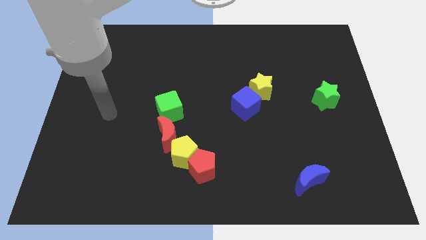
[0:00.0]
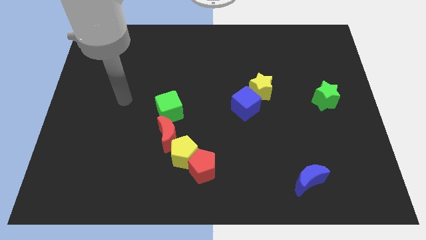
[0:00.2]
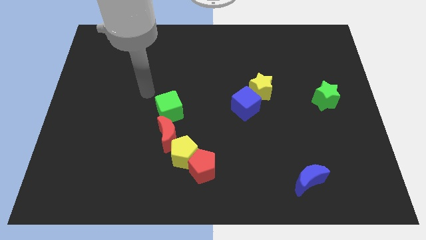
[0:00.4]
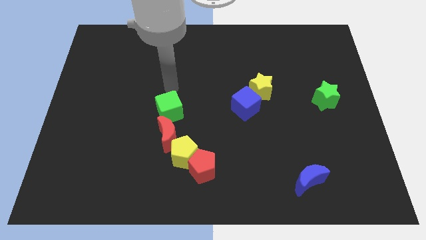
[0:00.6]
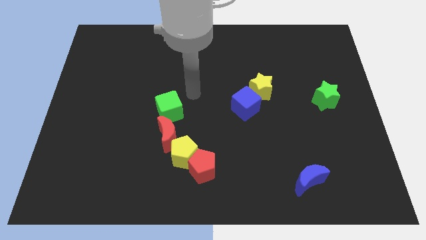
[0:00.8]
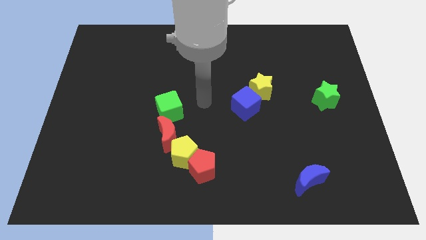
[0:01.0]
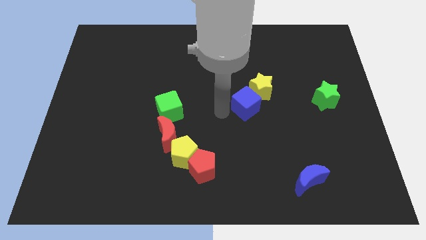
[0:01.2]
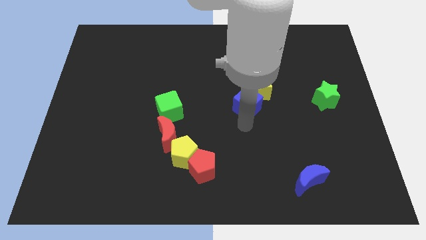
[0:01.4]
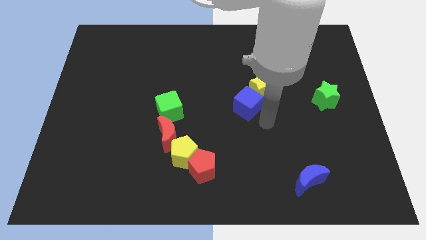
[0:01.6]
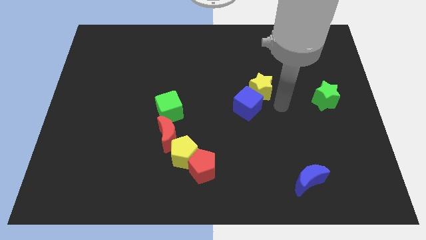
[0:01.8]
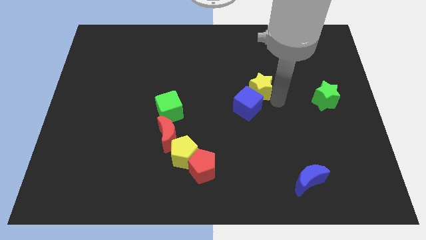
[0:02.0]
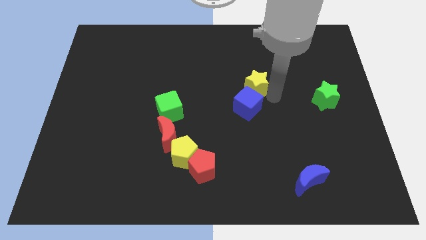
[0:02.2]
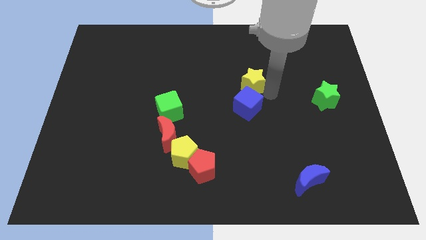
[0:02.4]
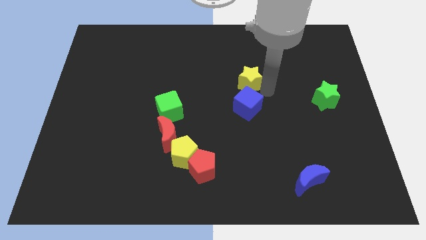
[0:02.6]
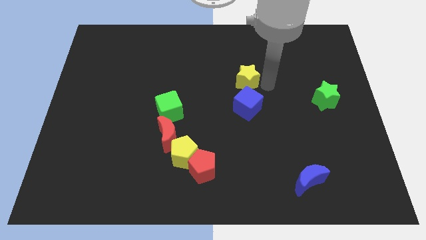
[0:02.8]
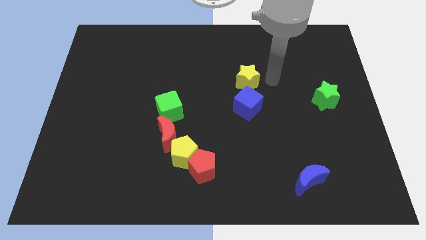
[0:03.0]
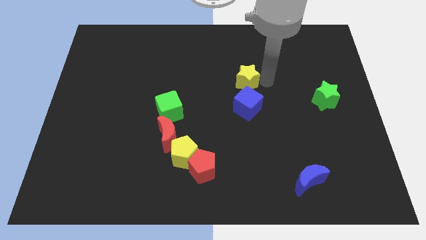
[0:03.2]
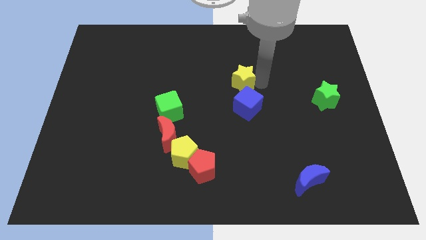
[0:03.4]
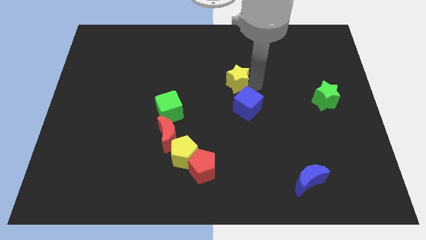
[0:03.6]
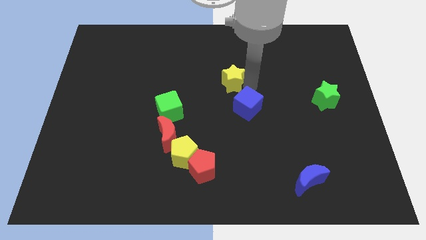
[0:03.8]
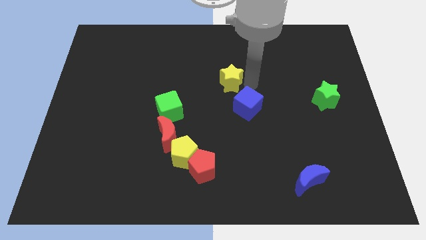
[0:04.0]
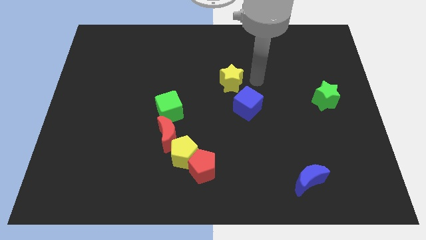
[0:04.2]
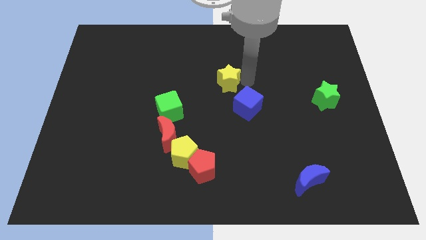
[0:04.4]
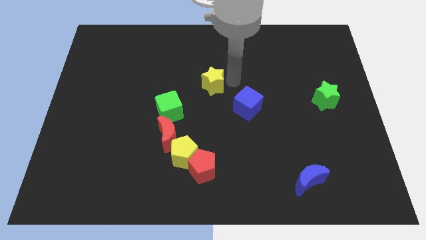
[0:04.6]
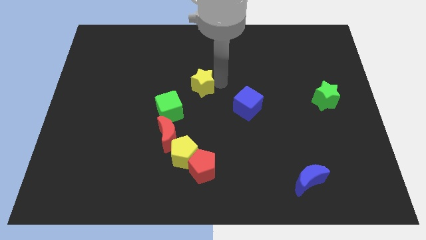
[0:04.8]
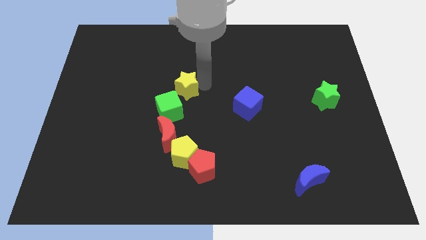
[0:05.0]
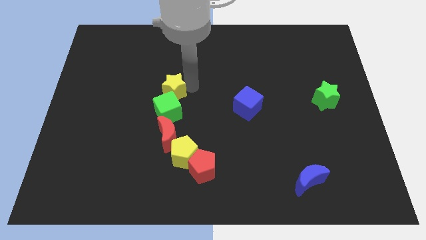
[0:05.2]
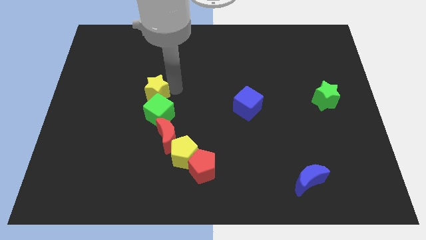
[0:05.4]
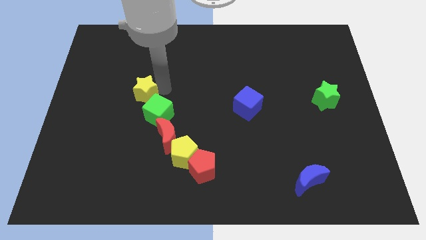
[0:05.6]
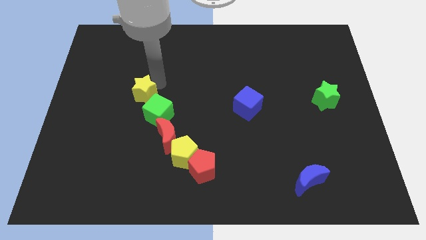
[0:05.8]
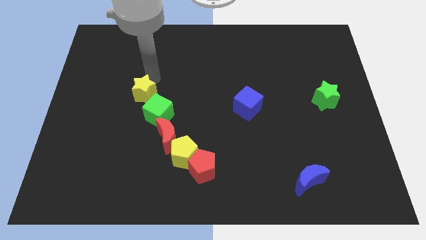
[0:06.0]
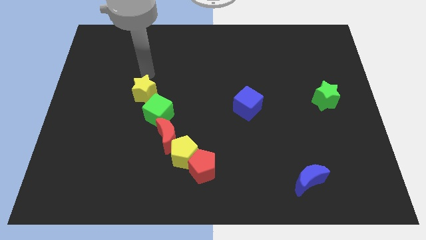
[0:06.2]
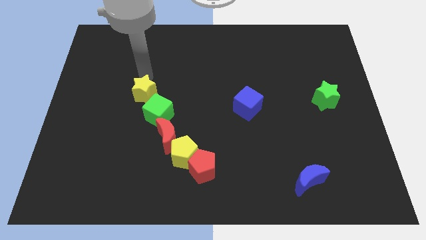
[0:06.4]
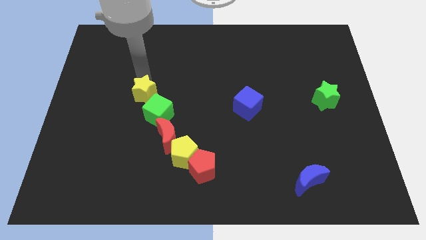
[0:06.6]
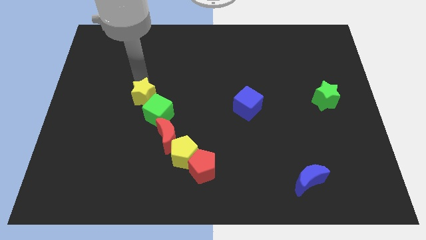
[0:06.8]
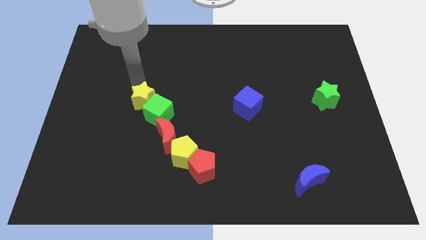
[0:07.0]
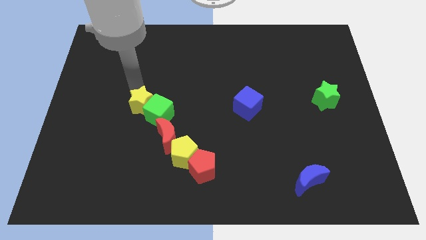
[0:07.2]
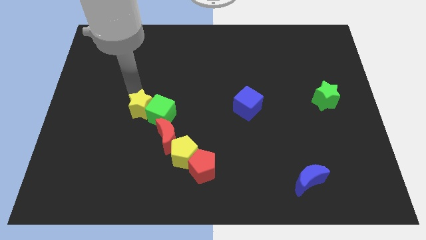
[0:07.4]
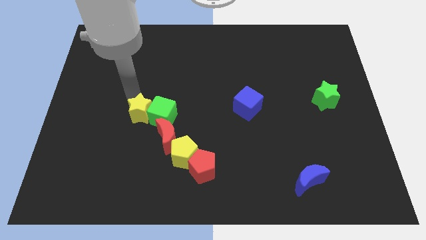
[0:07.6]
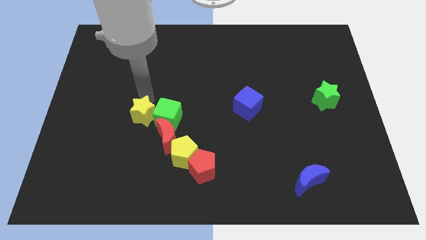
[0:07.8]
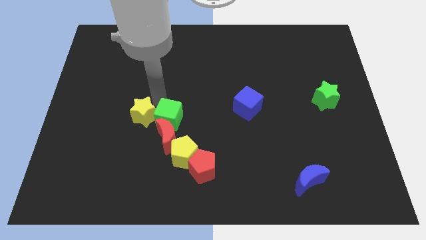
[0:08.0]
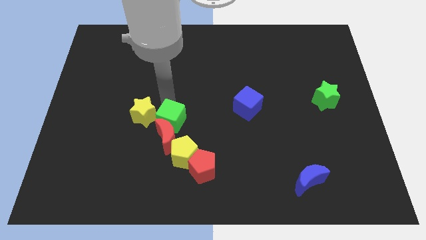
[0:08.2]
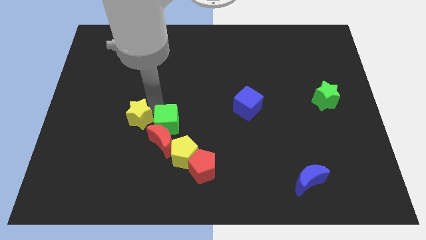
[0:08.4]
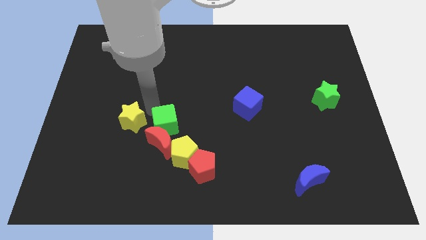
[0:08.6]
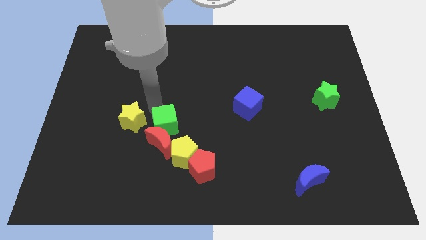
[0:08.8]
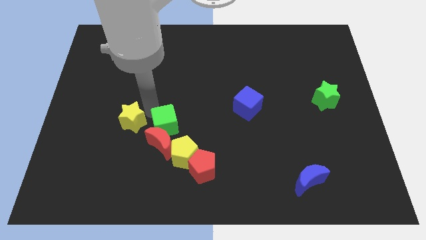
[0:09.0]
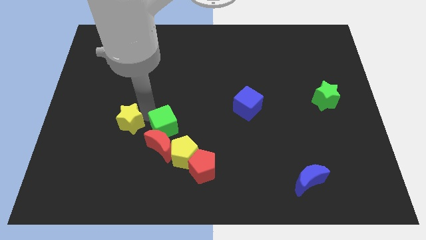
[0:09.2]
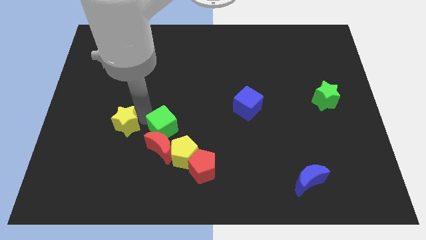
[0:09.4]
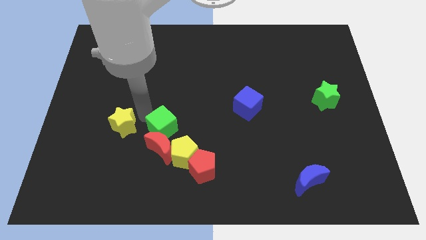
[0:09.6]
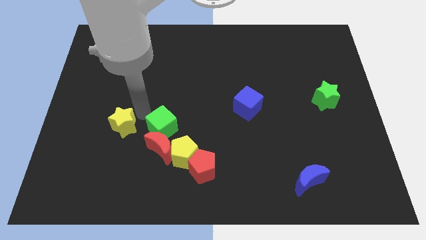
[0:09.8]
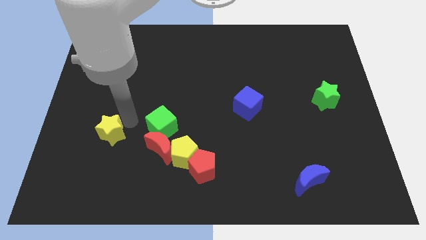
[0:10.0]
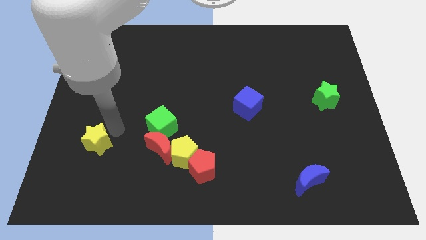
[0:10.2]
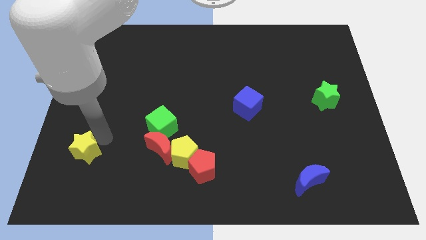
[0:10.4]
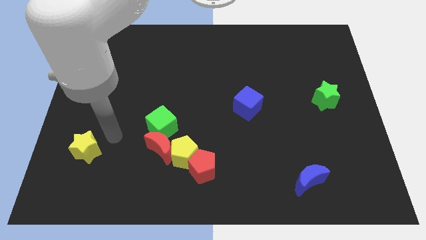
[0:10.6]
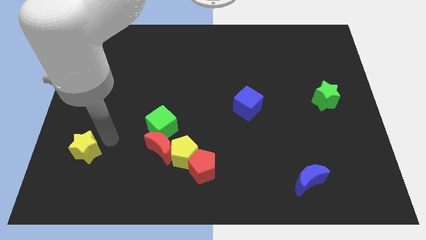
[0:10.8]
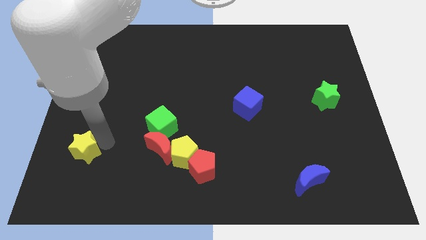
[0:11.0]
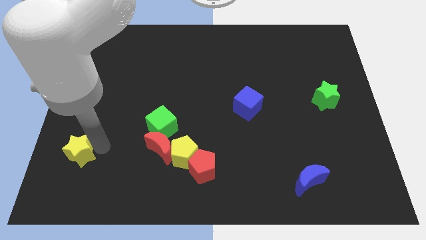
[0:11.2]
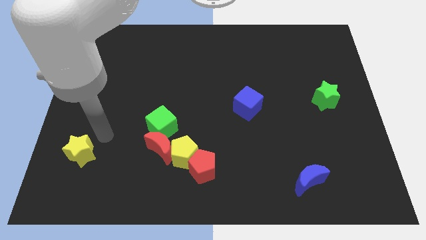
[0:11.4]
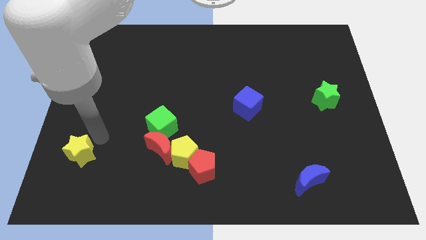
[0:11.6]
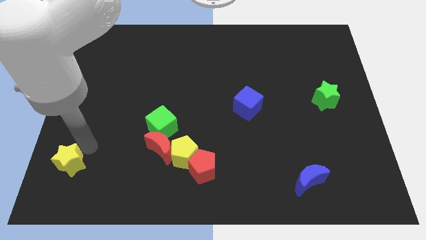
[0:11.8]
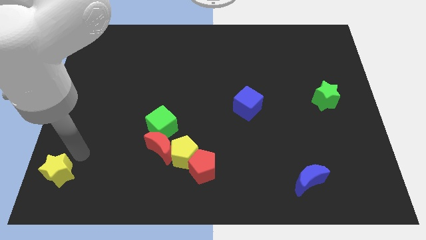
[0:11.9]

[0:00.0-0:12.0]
put the yellow star to the lower left corner
